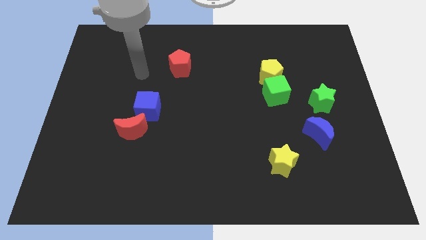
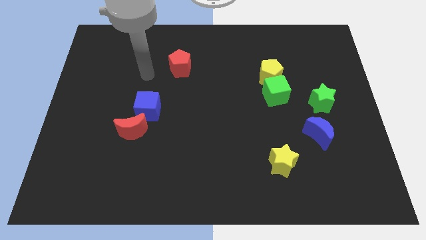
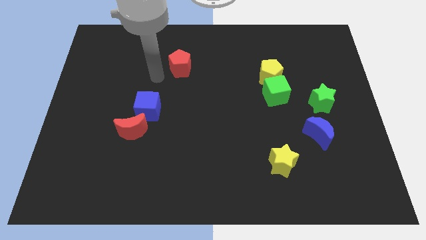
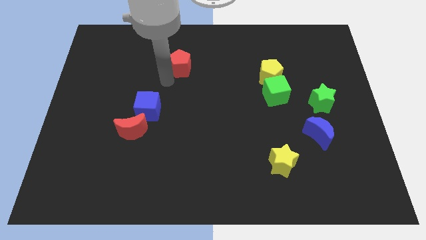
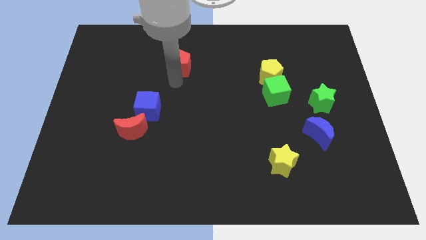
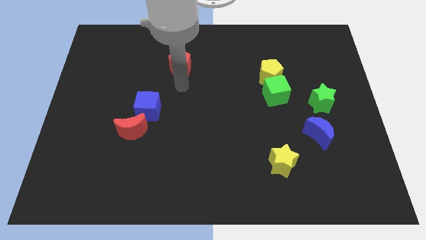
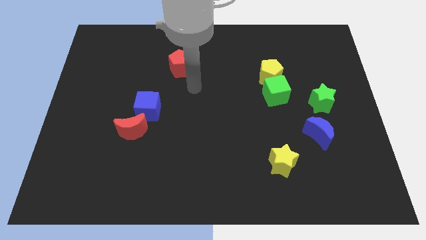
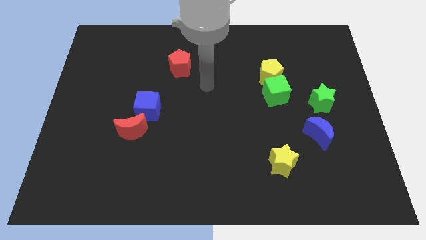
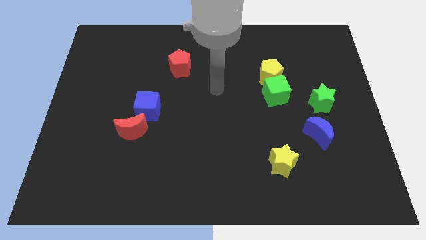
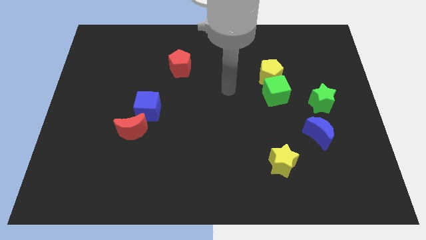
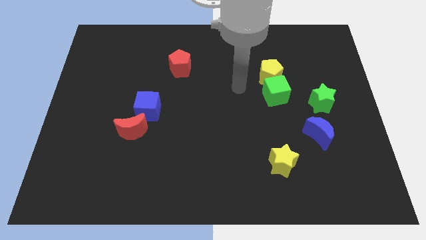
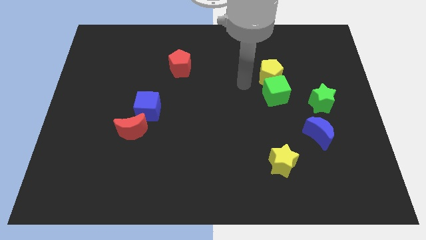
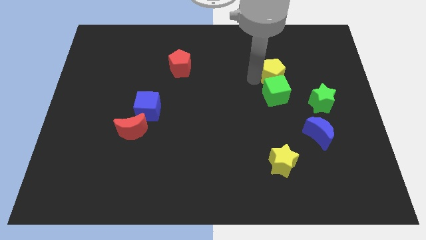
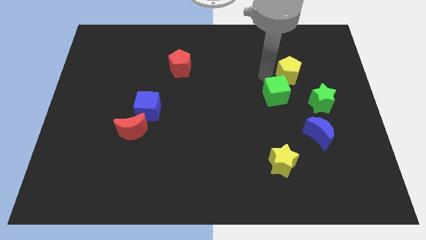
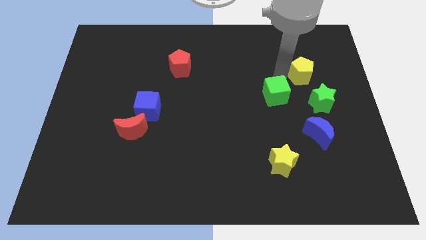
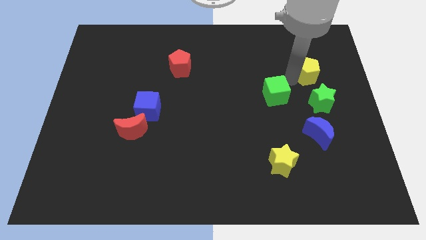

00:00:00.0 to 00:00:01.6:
separate the green cube from the yellow pentagon

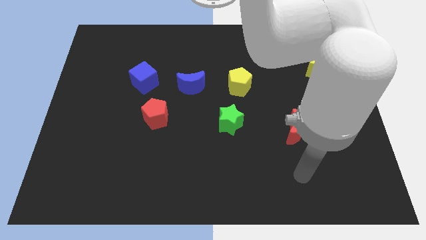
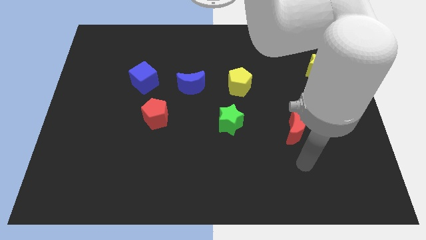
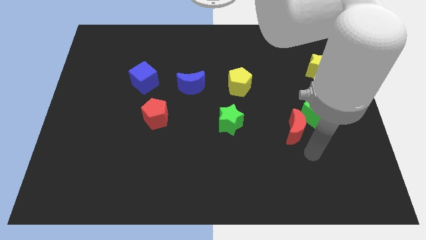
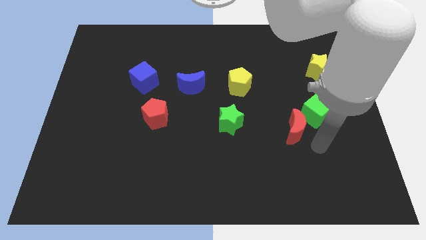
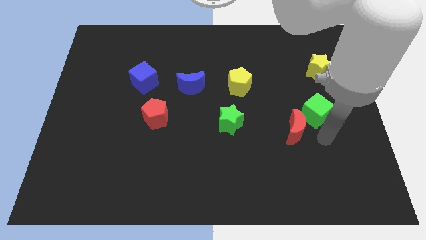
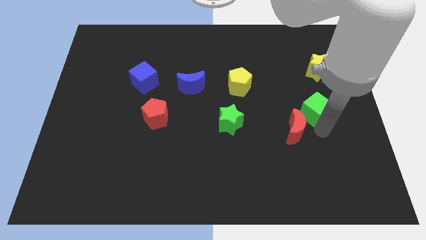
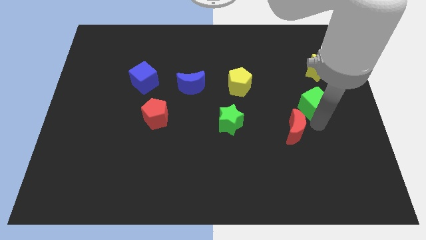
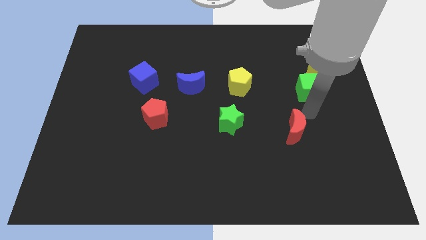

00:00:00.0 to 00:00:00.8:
pull the red moon apart from the green cube

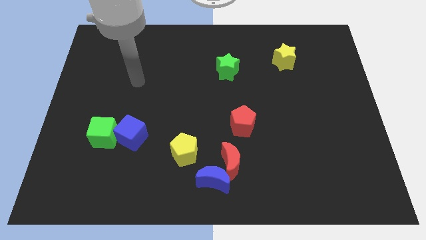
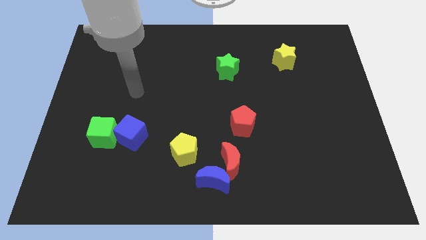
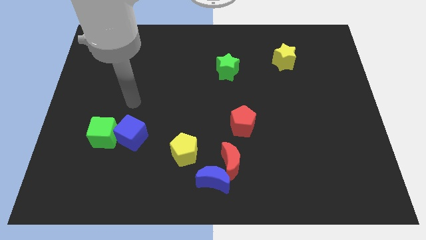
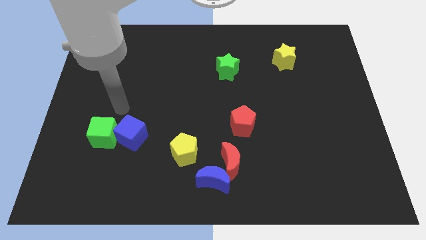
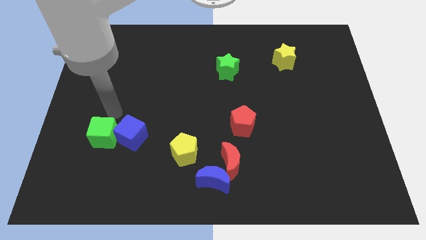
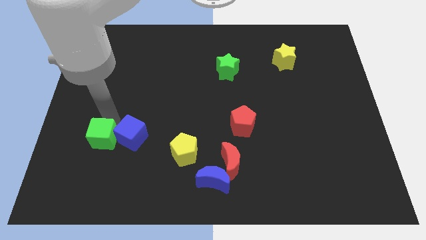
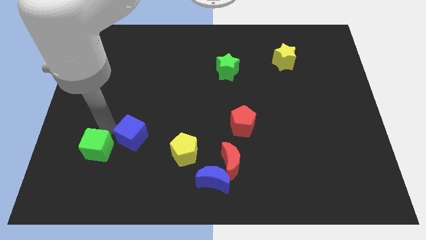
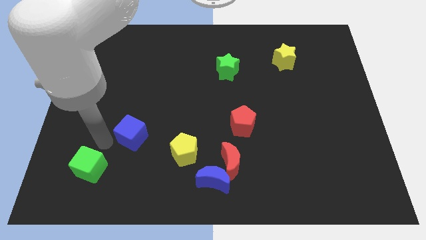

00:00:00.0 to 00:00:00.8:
separate the blue cube from the green cube

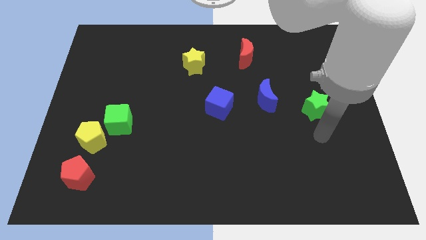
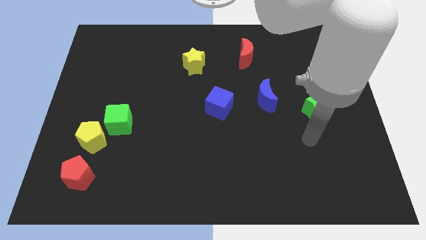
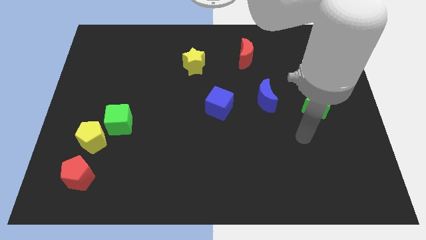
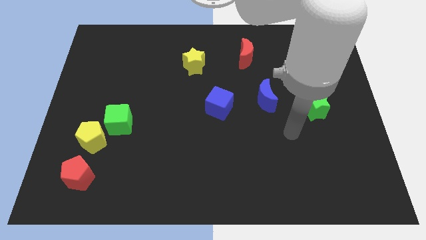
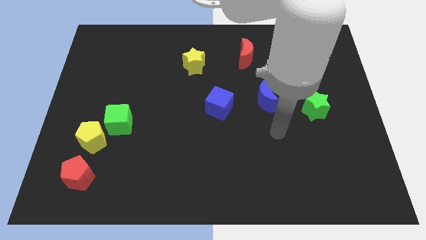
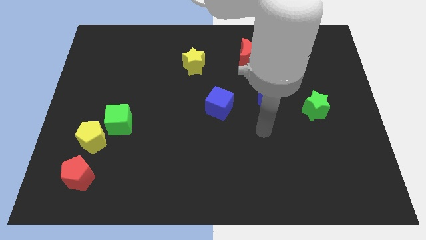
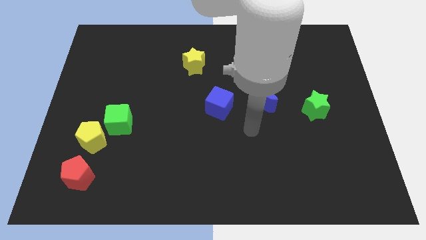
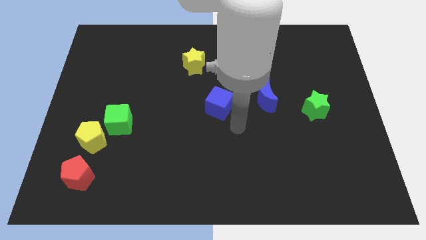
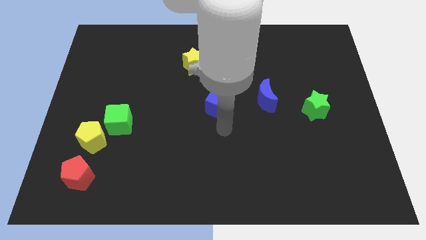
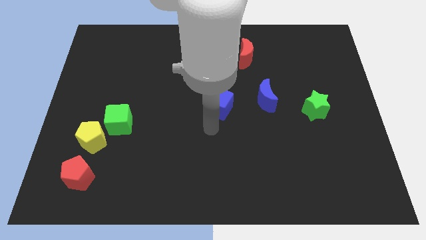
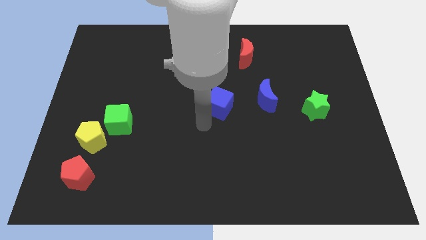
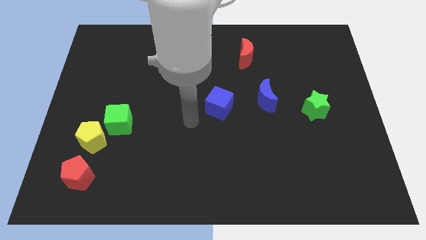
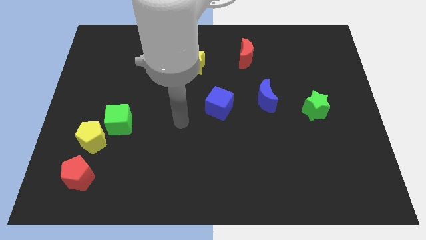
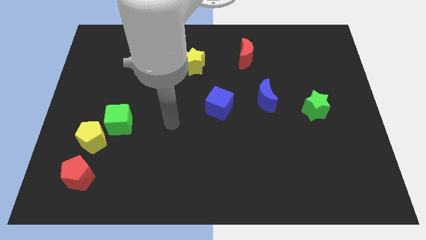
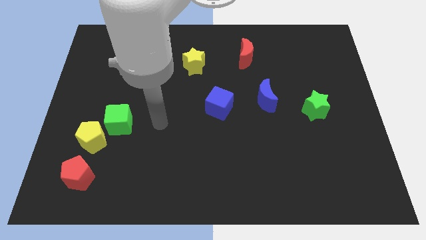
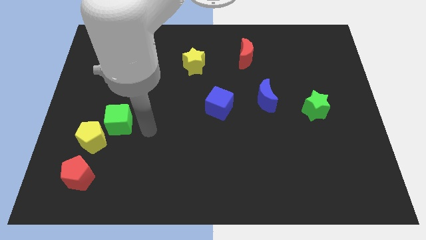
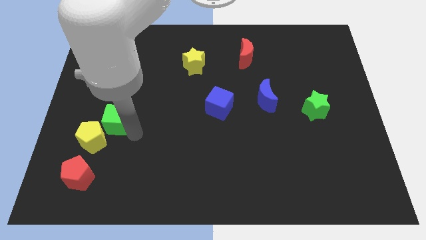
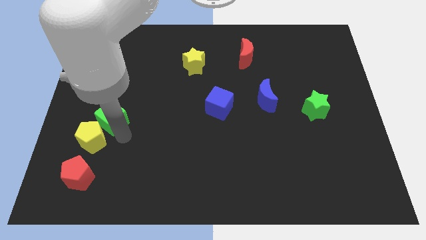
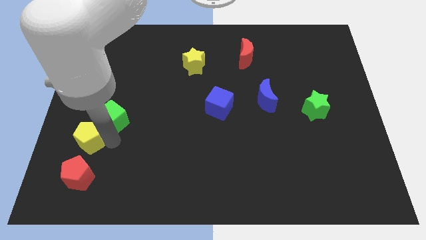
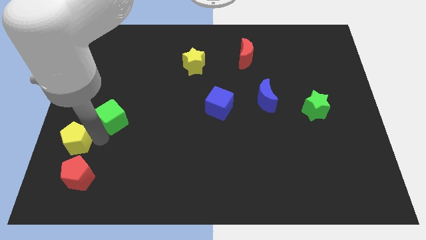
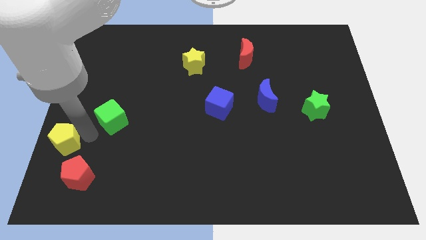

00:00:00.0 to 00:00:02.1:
move the green cube away from the yellow pentagon

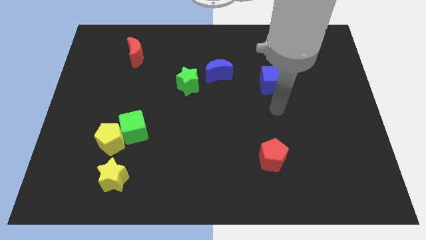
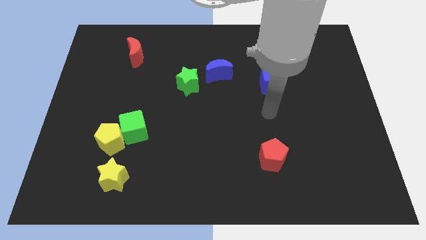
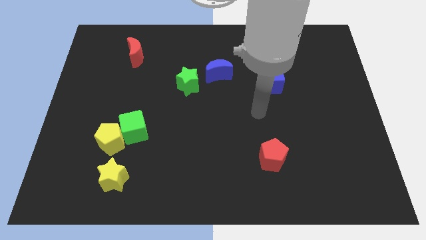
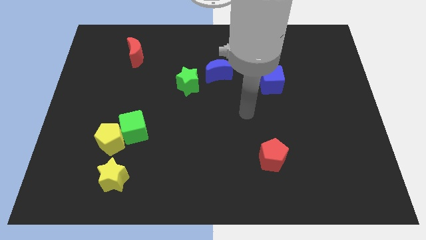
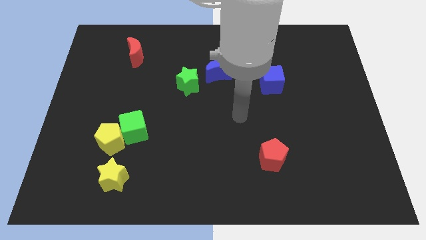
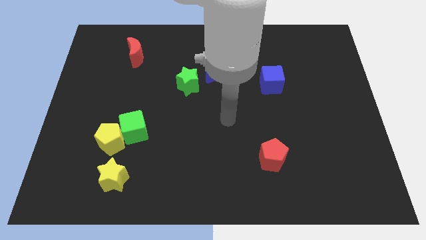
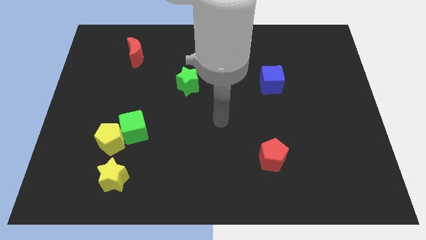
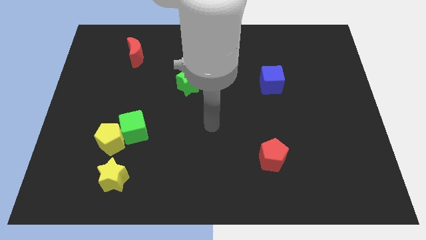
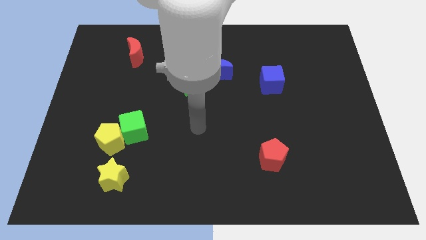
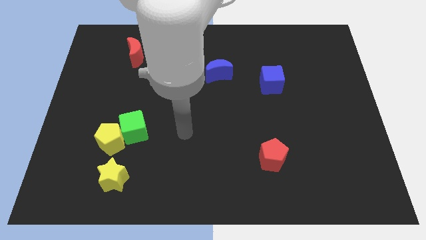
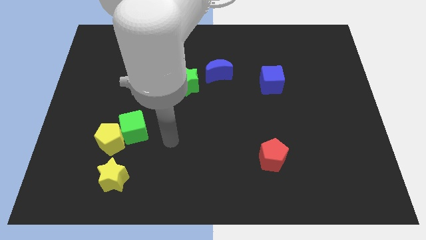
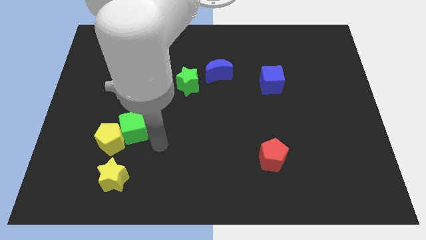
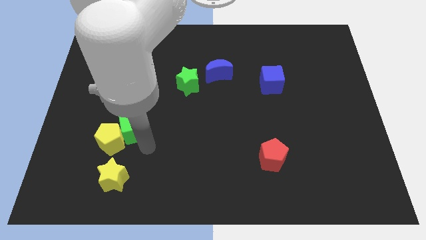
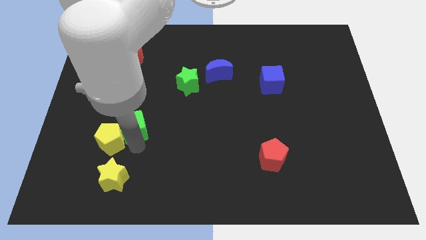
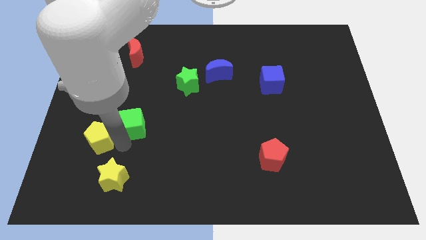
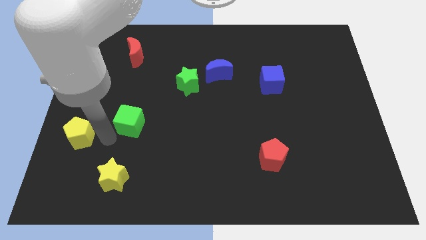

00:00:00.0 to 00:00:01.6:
pull the green cube apart from the yellow pentagon

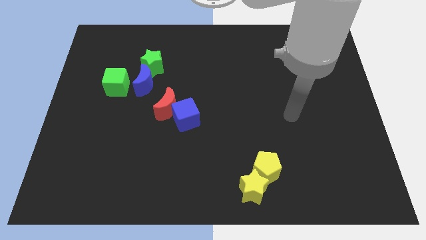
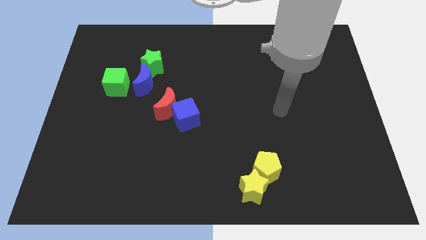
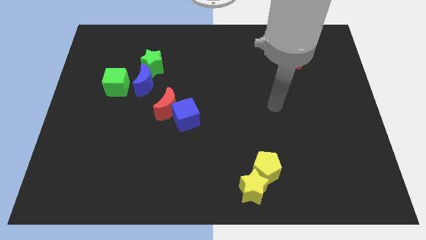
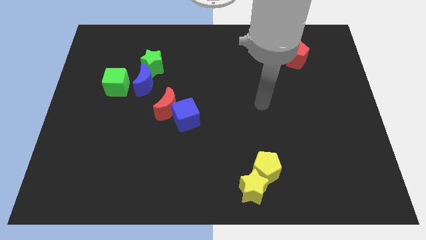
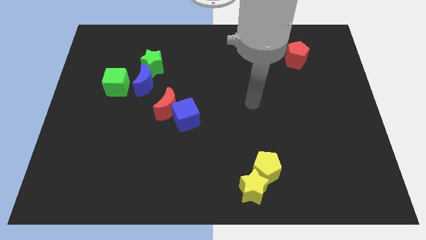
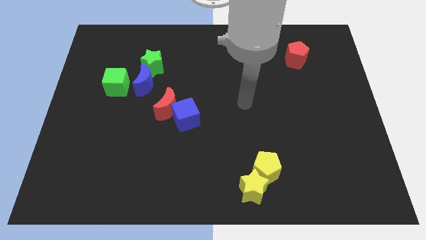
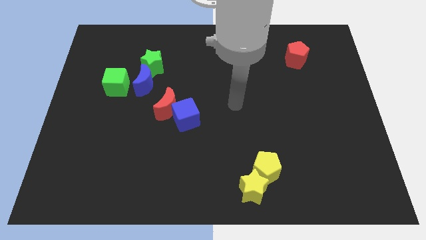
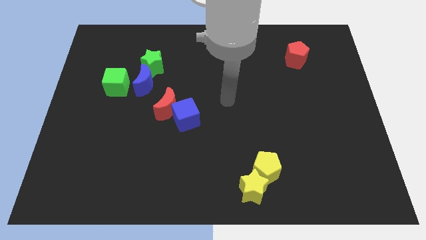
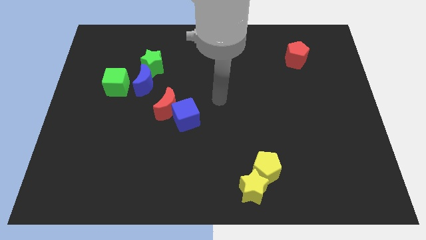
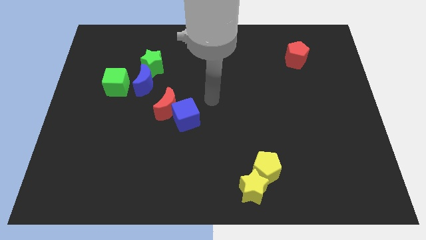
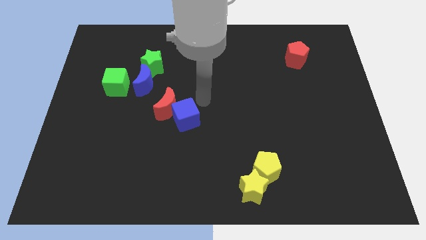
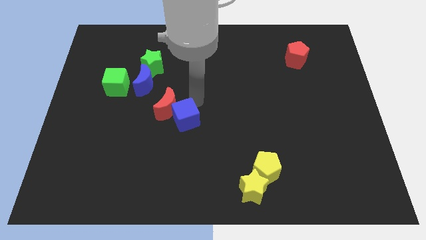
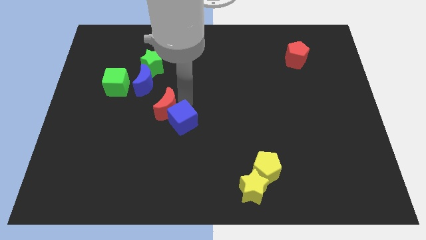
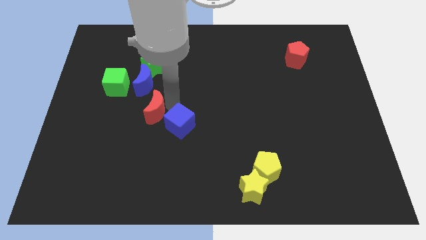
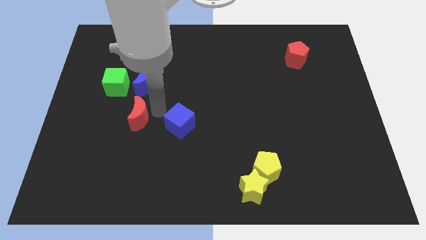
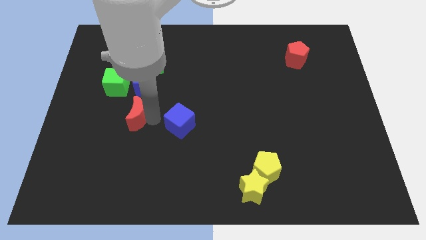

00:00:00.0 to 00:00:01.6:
separate the blue cube from the red moon

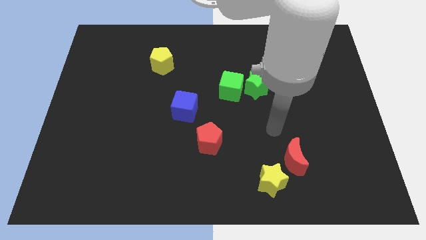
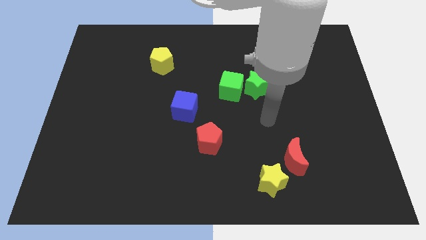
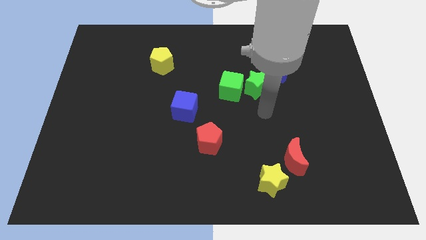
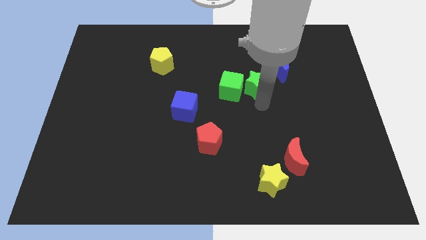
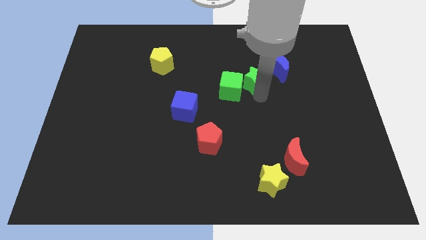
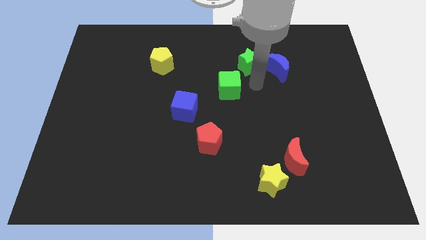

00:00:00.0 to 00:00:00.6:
move the green cube away from the green star

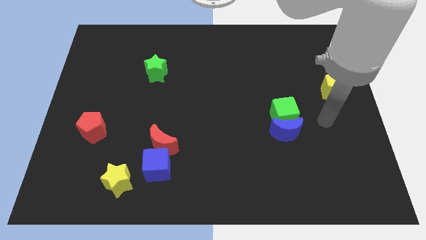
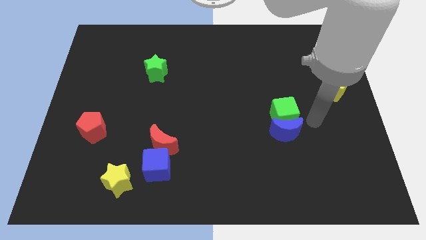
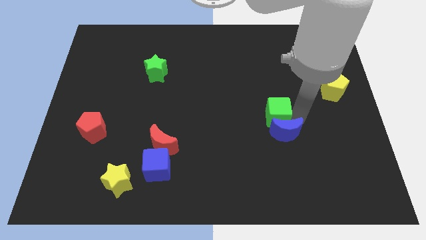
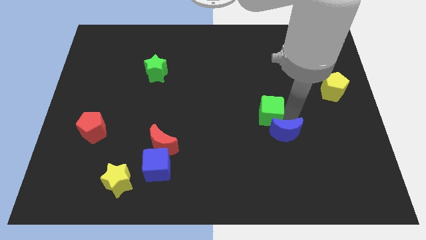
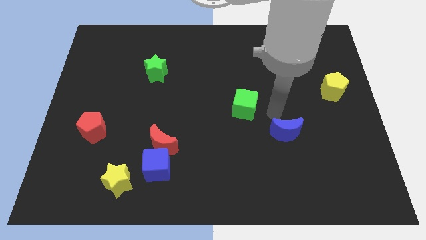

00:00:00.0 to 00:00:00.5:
separate the blue moon from the green cube
